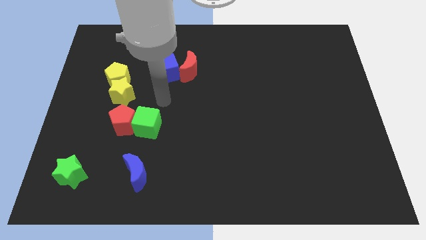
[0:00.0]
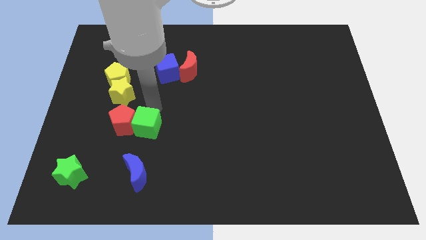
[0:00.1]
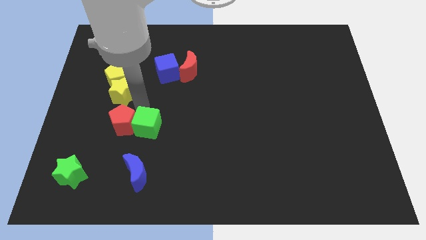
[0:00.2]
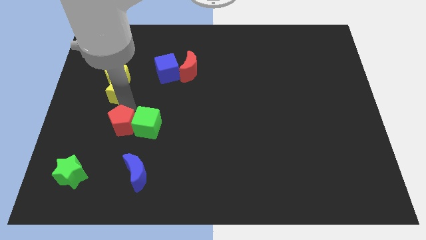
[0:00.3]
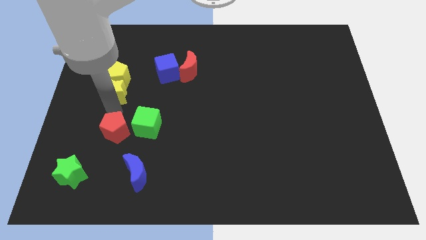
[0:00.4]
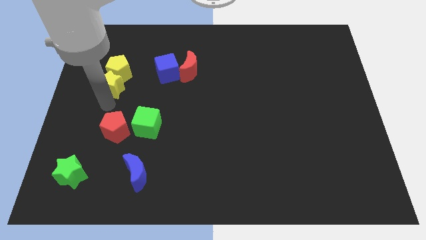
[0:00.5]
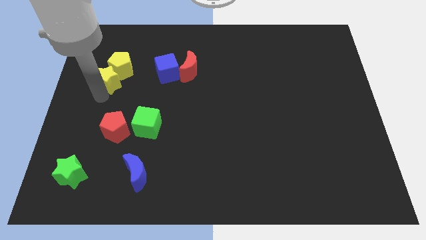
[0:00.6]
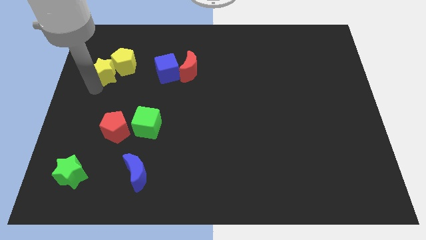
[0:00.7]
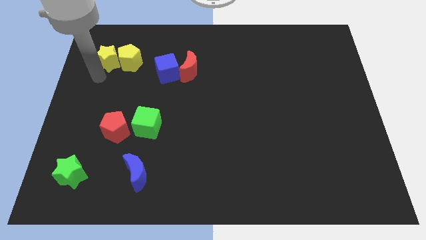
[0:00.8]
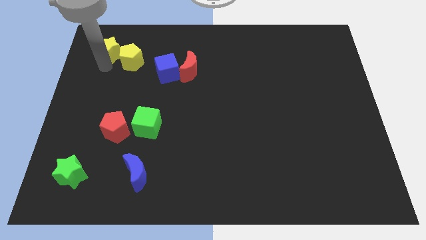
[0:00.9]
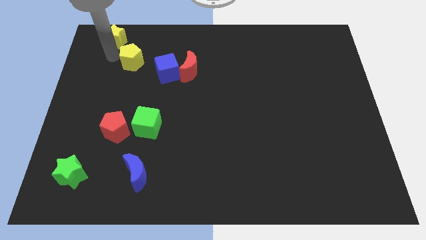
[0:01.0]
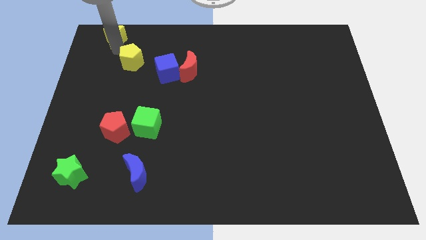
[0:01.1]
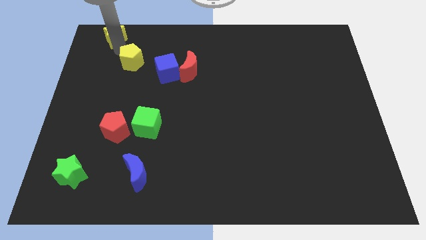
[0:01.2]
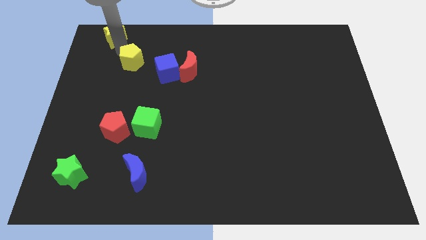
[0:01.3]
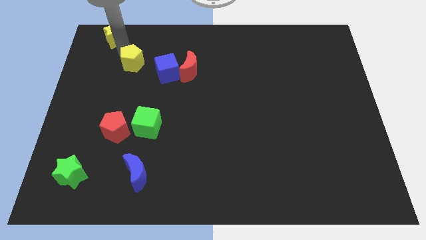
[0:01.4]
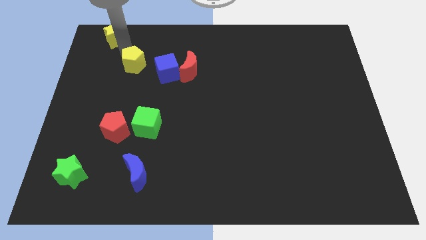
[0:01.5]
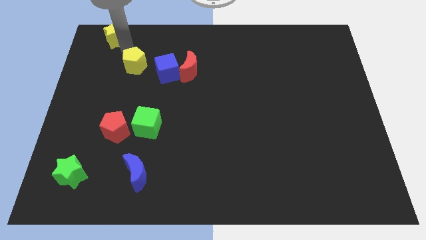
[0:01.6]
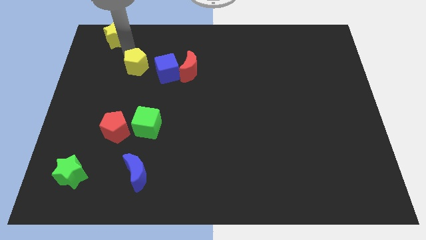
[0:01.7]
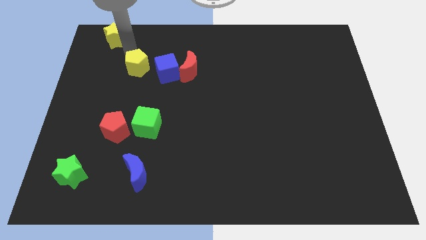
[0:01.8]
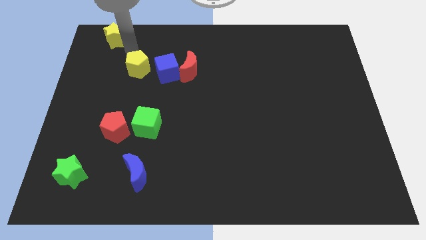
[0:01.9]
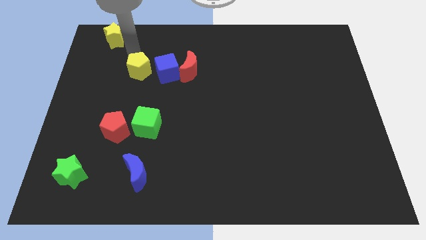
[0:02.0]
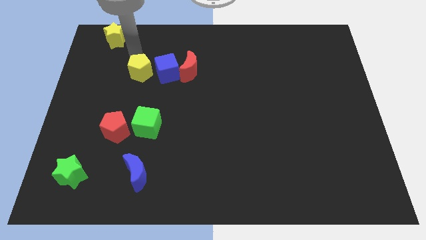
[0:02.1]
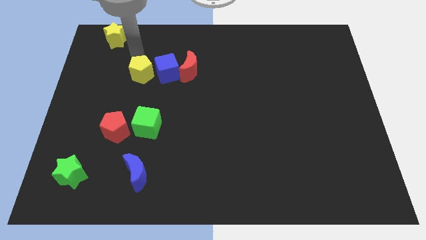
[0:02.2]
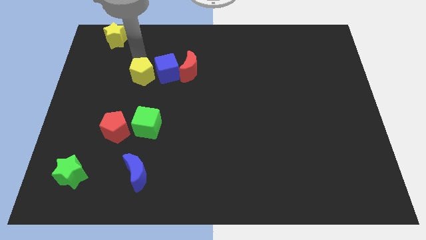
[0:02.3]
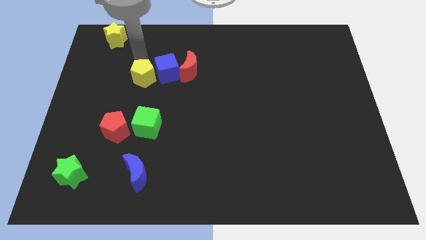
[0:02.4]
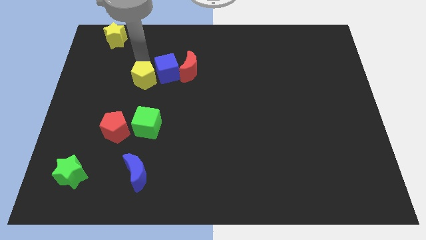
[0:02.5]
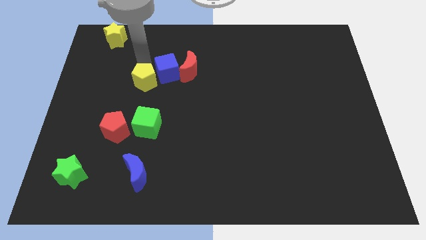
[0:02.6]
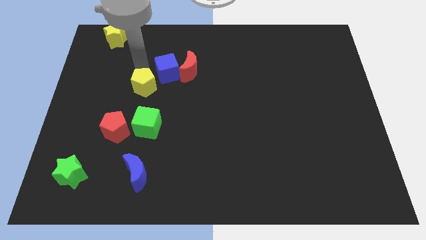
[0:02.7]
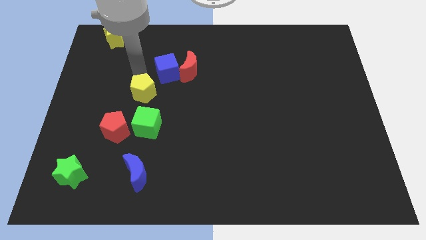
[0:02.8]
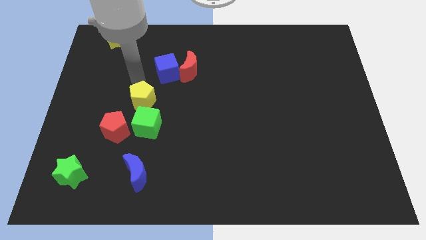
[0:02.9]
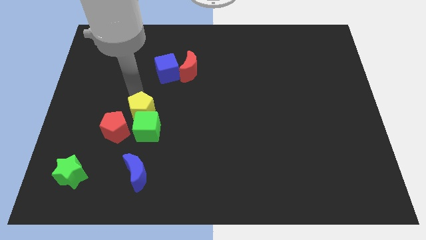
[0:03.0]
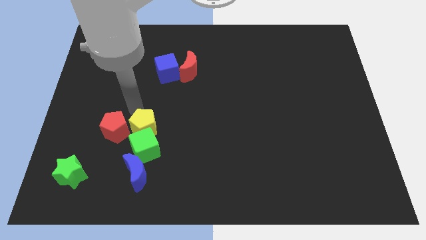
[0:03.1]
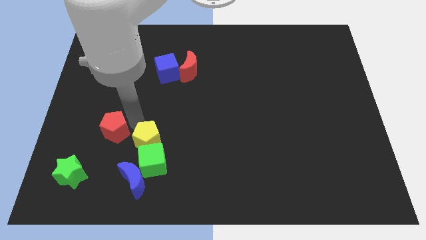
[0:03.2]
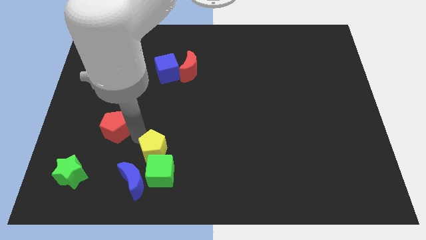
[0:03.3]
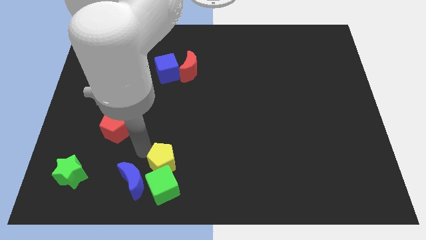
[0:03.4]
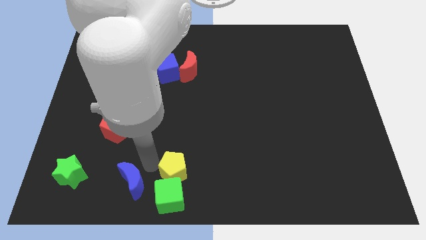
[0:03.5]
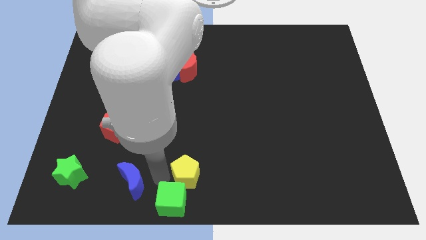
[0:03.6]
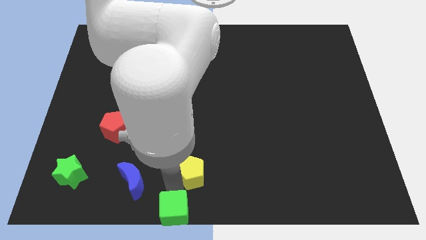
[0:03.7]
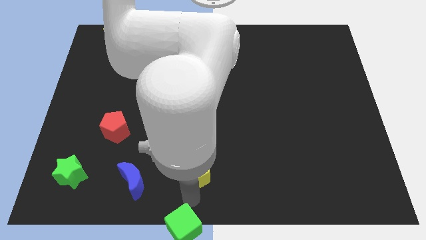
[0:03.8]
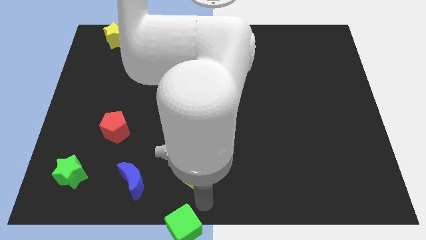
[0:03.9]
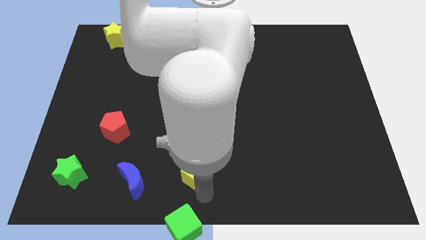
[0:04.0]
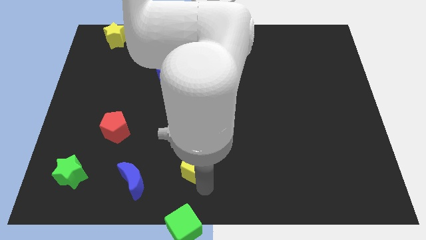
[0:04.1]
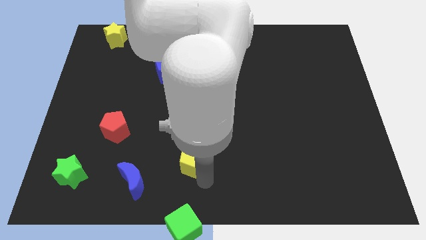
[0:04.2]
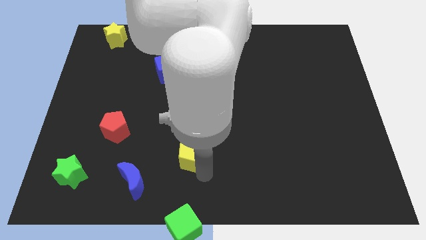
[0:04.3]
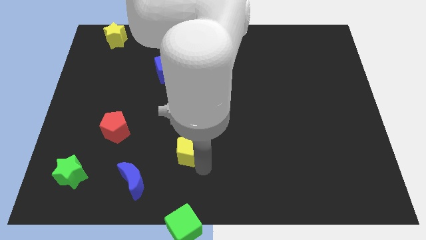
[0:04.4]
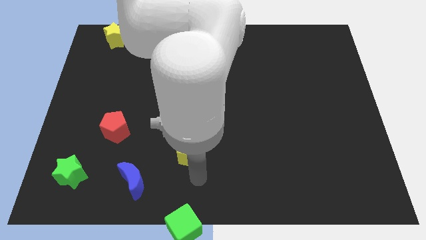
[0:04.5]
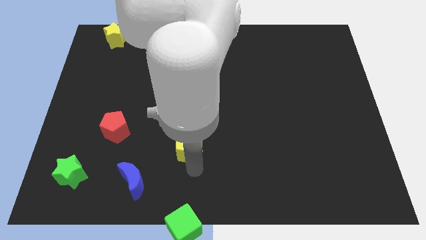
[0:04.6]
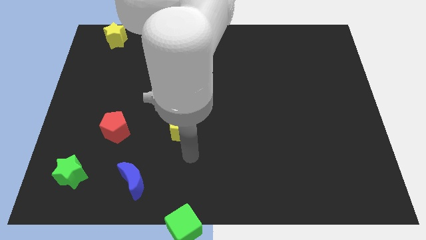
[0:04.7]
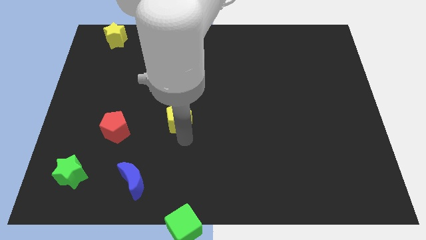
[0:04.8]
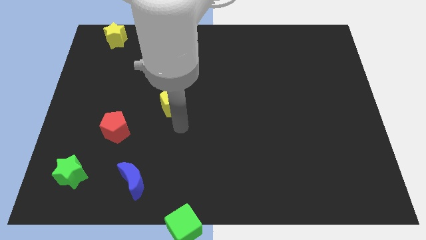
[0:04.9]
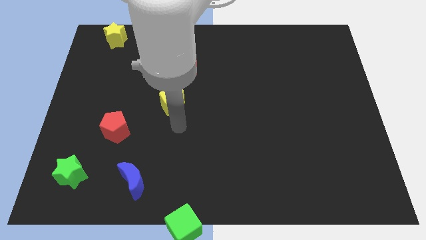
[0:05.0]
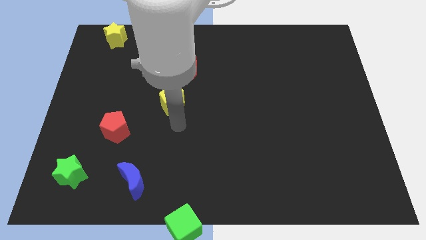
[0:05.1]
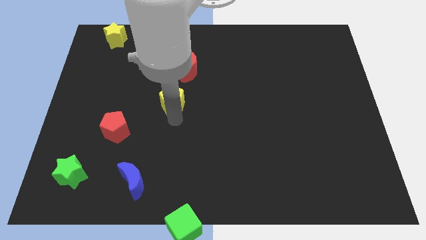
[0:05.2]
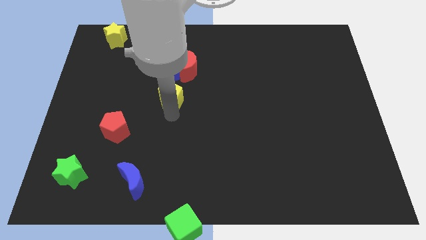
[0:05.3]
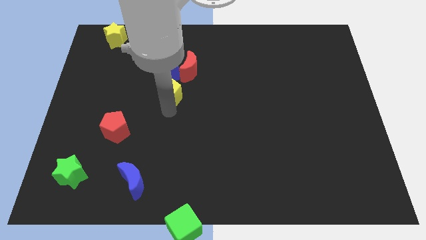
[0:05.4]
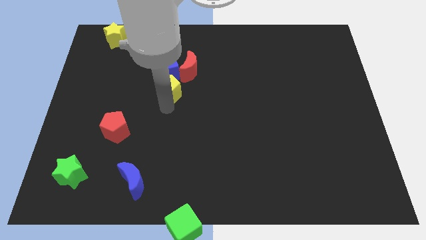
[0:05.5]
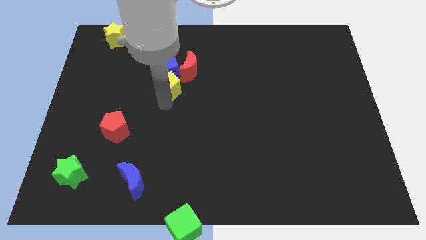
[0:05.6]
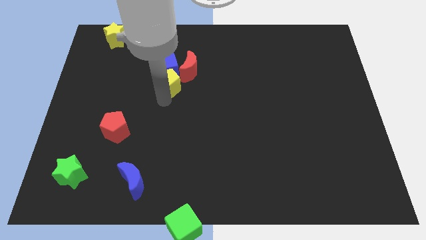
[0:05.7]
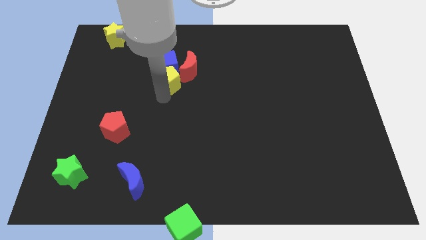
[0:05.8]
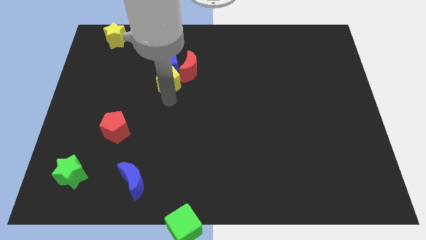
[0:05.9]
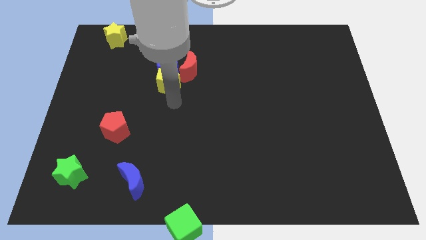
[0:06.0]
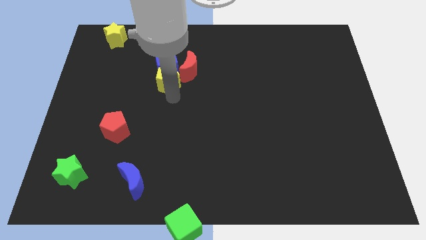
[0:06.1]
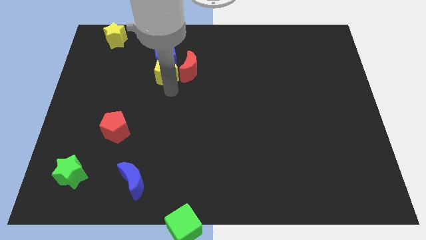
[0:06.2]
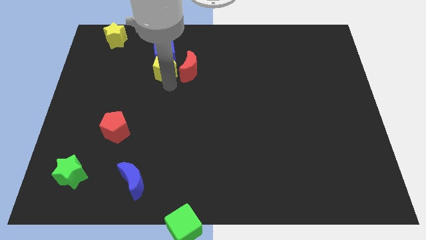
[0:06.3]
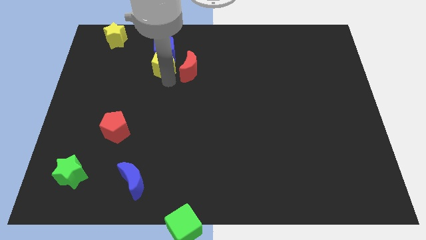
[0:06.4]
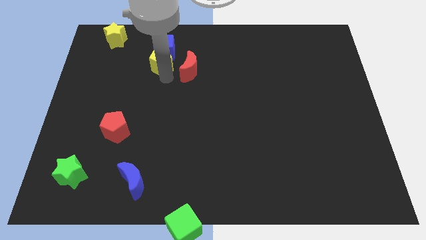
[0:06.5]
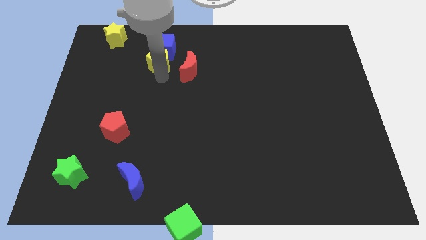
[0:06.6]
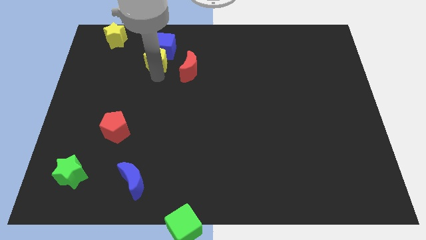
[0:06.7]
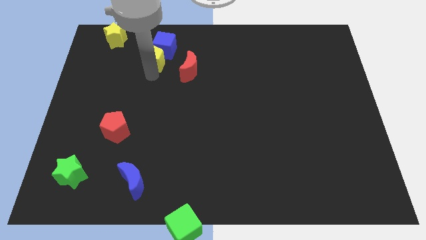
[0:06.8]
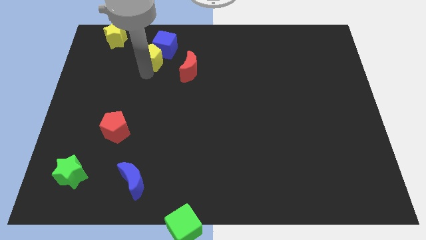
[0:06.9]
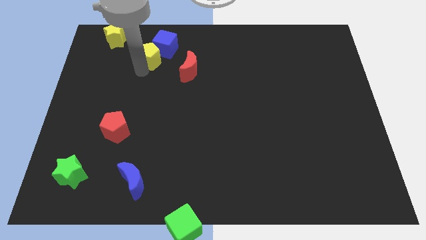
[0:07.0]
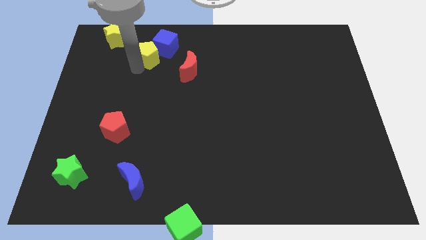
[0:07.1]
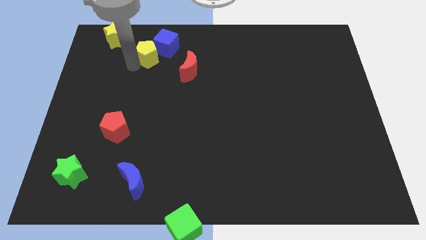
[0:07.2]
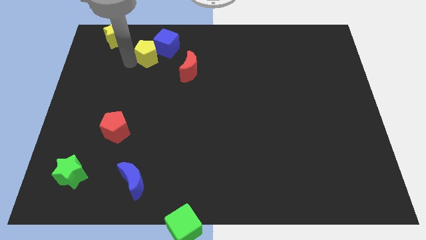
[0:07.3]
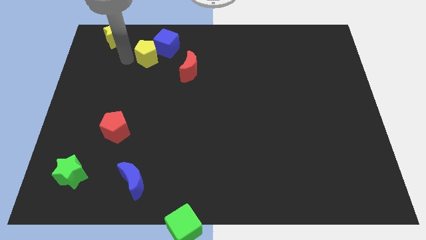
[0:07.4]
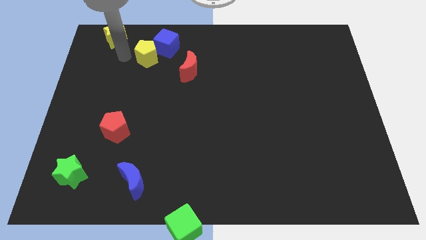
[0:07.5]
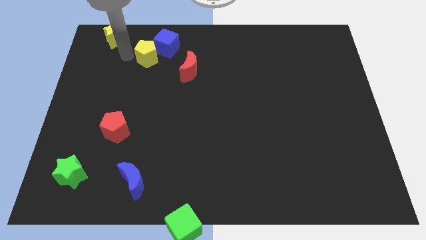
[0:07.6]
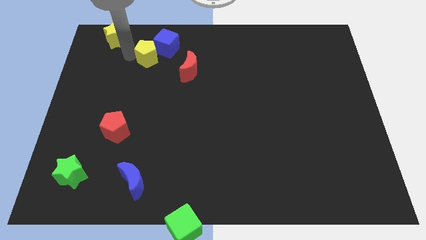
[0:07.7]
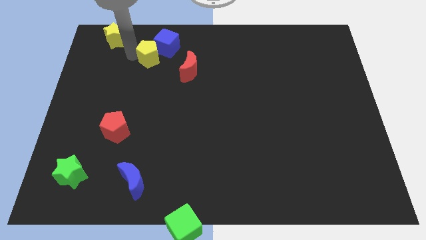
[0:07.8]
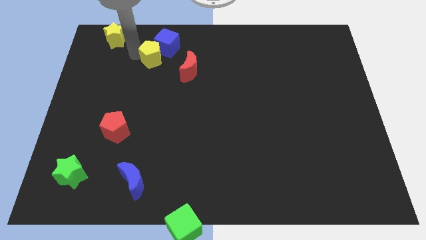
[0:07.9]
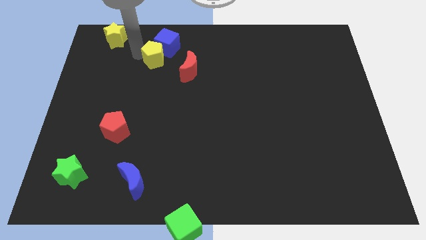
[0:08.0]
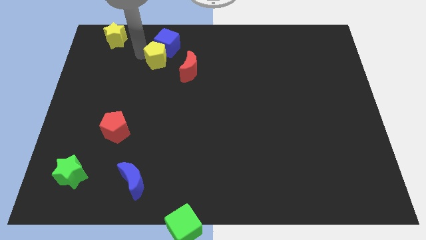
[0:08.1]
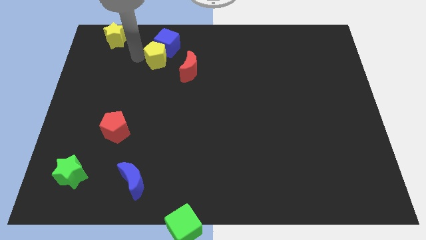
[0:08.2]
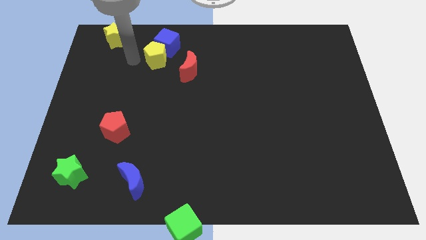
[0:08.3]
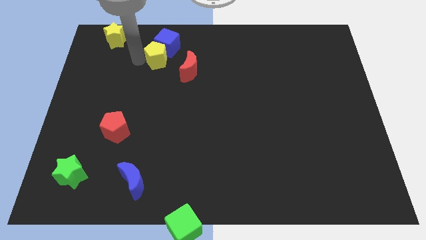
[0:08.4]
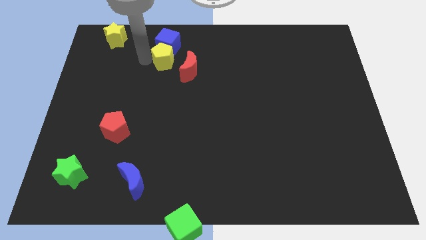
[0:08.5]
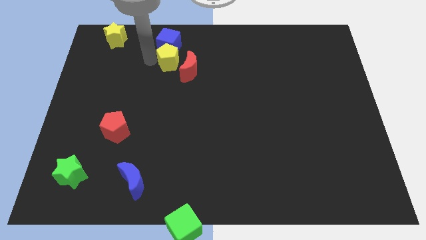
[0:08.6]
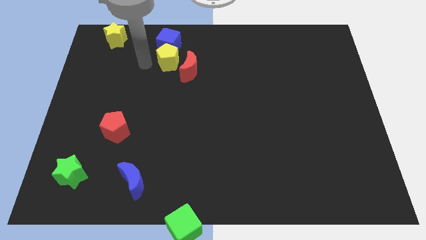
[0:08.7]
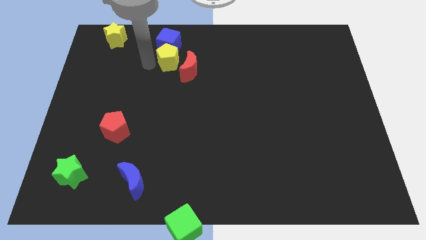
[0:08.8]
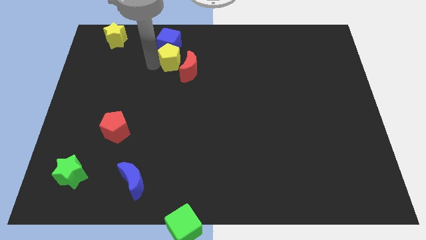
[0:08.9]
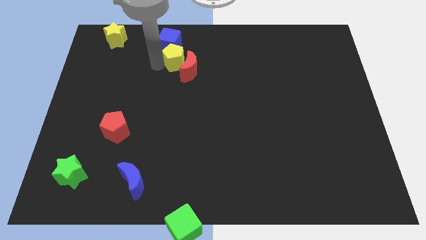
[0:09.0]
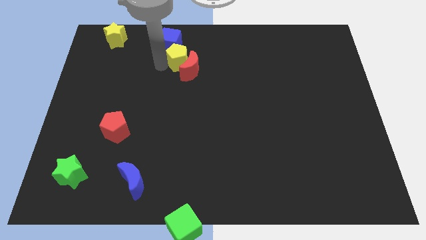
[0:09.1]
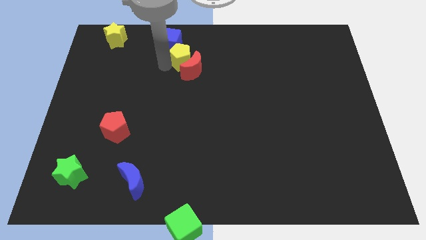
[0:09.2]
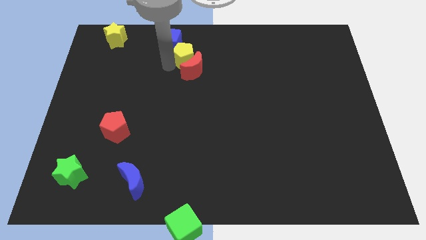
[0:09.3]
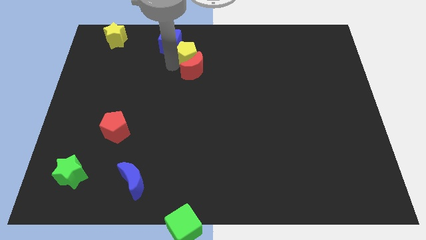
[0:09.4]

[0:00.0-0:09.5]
move the yellow pentagon to the top right side of the red moon
